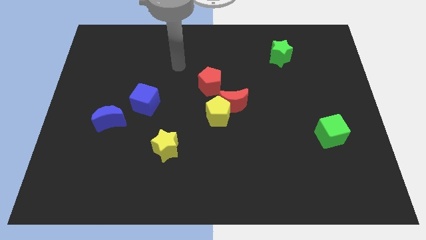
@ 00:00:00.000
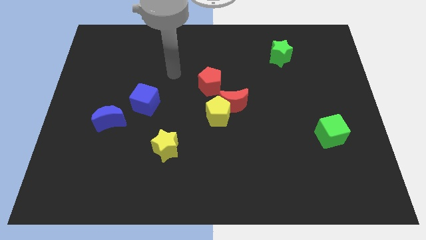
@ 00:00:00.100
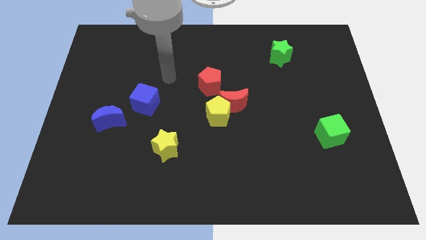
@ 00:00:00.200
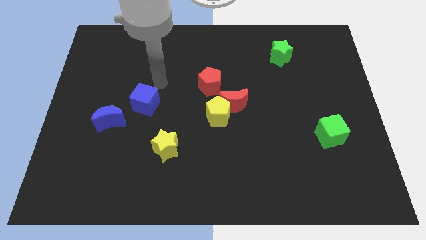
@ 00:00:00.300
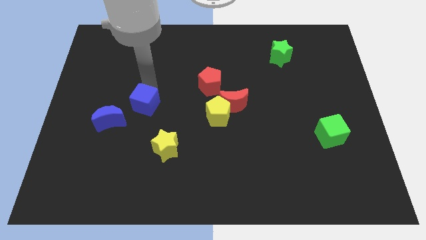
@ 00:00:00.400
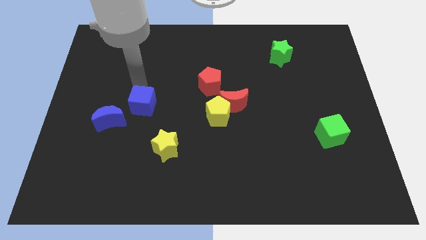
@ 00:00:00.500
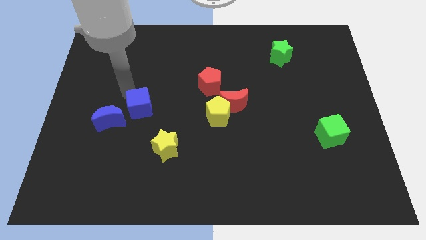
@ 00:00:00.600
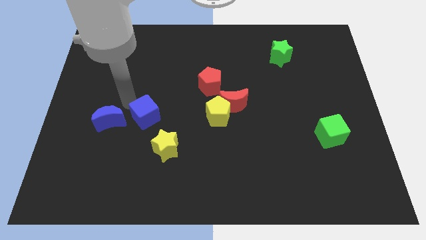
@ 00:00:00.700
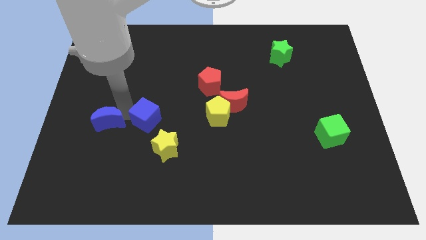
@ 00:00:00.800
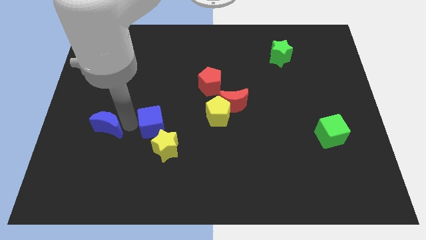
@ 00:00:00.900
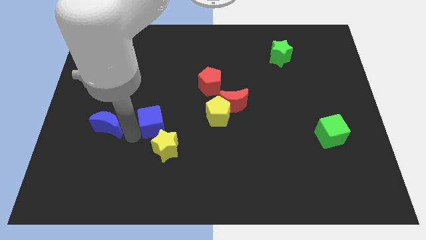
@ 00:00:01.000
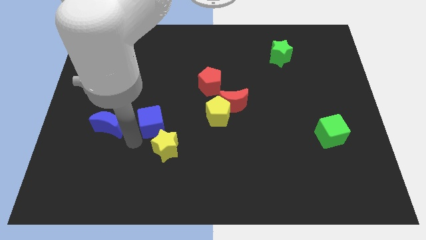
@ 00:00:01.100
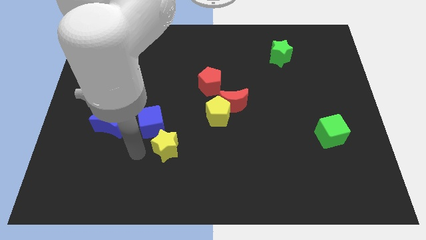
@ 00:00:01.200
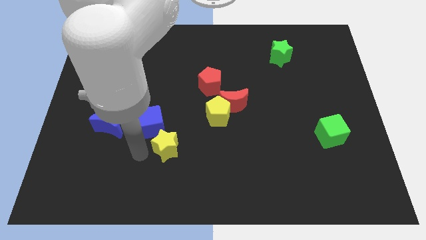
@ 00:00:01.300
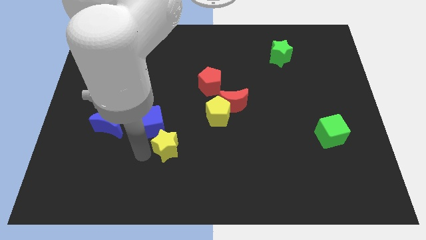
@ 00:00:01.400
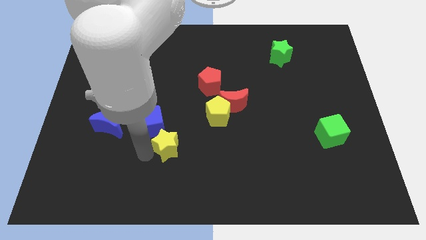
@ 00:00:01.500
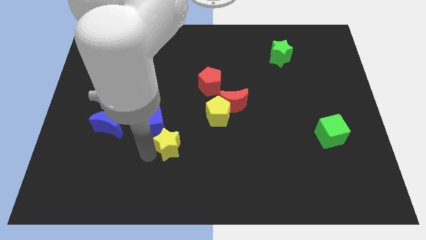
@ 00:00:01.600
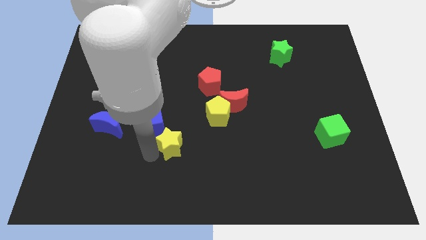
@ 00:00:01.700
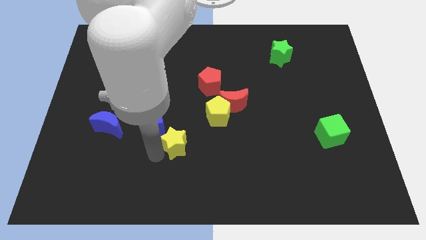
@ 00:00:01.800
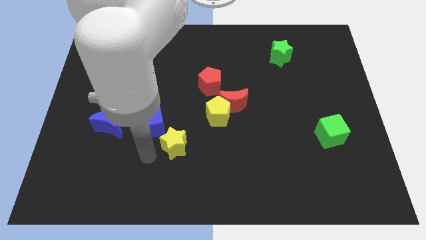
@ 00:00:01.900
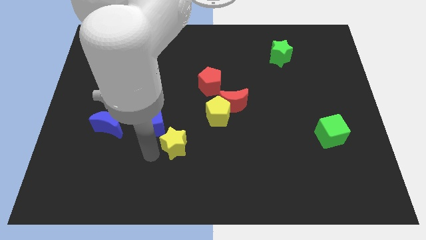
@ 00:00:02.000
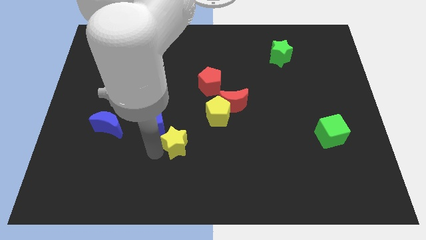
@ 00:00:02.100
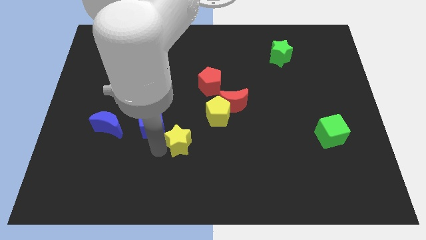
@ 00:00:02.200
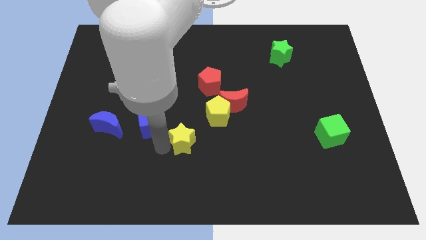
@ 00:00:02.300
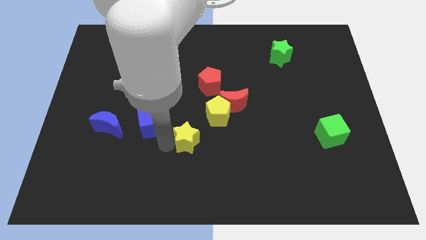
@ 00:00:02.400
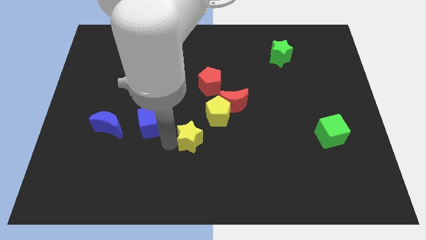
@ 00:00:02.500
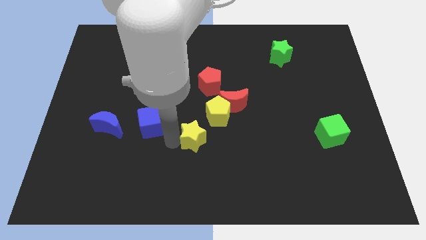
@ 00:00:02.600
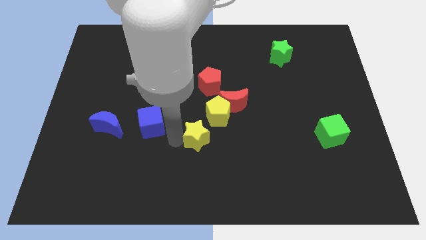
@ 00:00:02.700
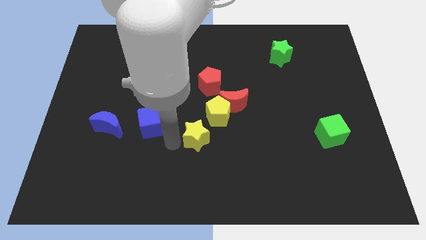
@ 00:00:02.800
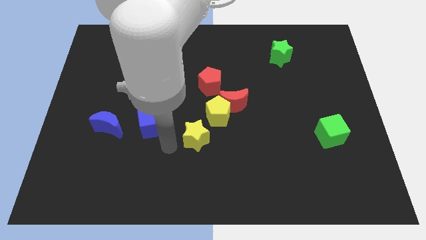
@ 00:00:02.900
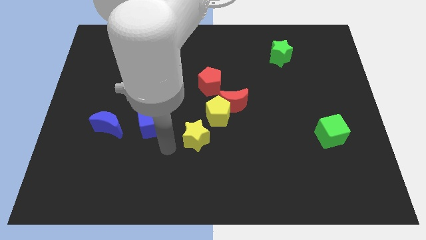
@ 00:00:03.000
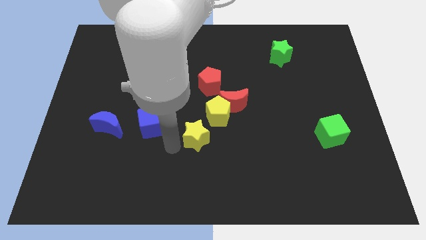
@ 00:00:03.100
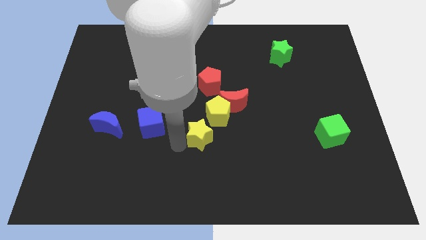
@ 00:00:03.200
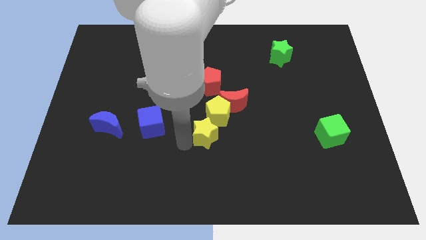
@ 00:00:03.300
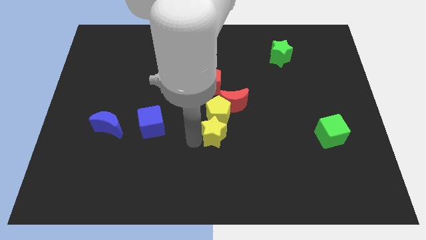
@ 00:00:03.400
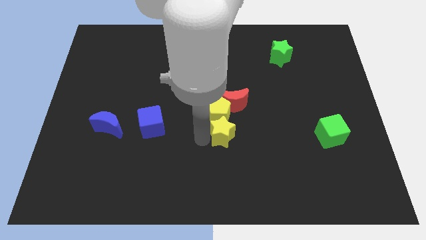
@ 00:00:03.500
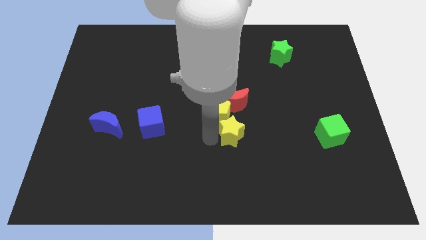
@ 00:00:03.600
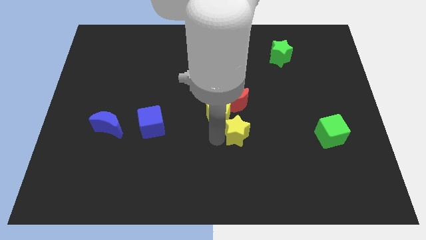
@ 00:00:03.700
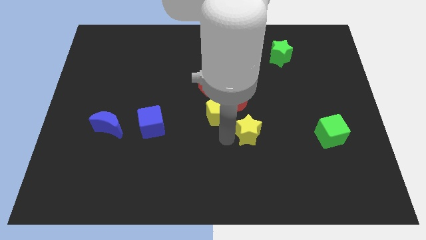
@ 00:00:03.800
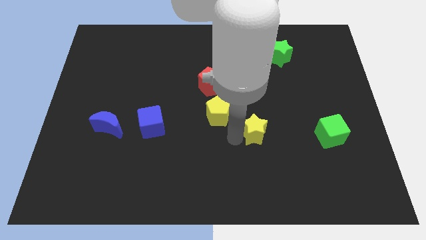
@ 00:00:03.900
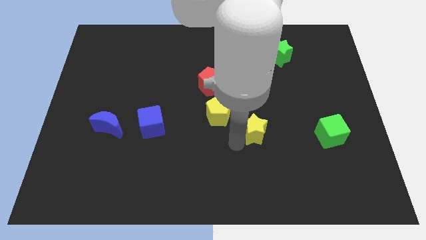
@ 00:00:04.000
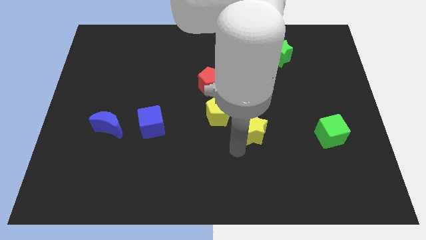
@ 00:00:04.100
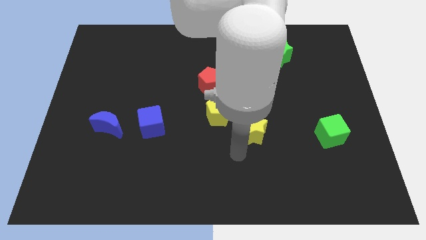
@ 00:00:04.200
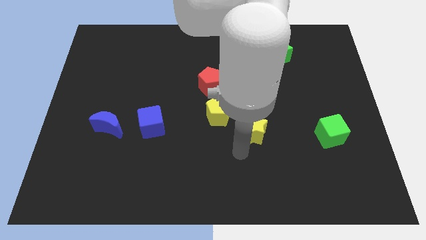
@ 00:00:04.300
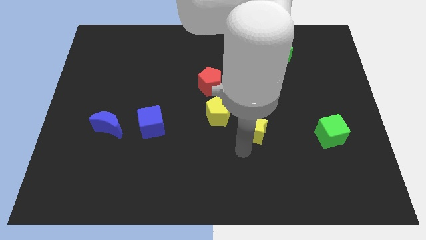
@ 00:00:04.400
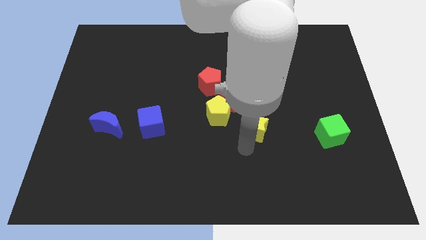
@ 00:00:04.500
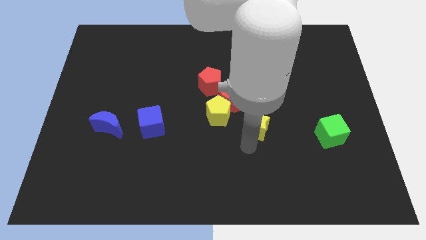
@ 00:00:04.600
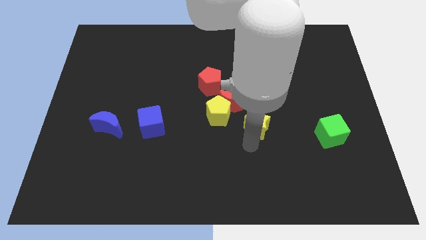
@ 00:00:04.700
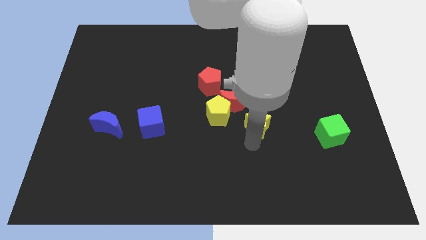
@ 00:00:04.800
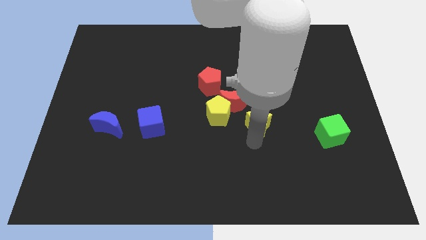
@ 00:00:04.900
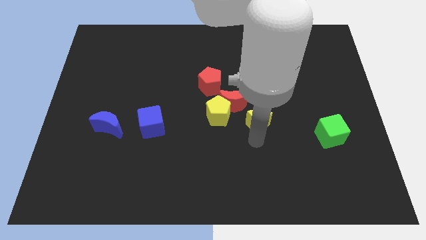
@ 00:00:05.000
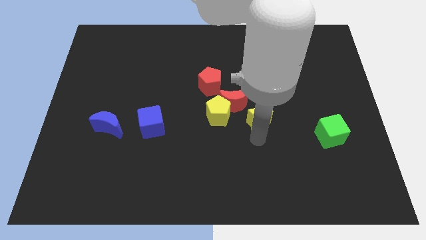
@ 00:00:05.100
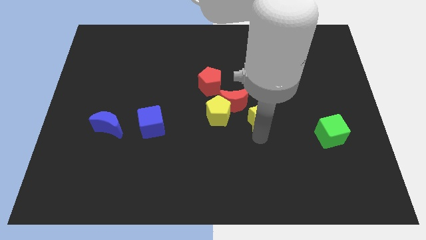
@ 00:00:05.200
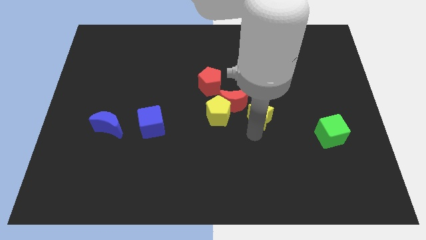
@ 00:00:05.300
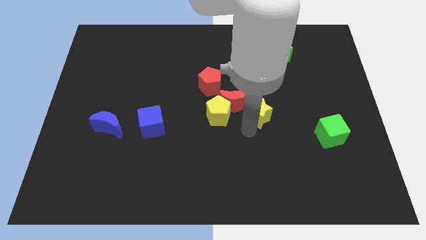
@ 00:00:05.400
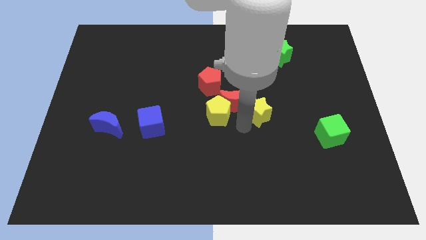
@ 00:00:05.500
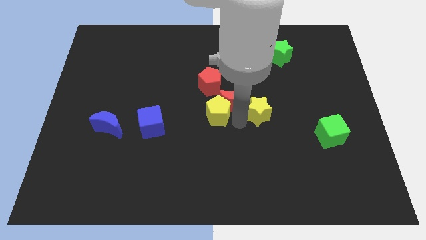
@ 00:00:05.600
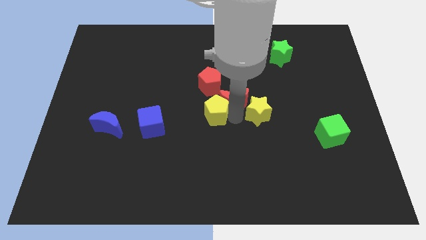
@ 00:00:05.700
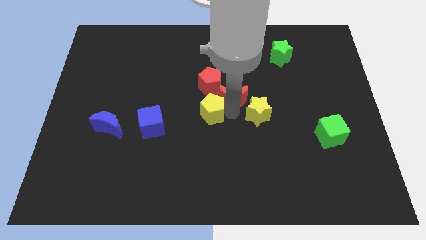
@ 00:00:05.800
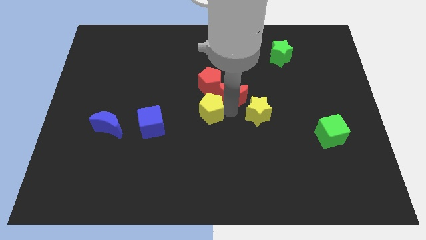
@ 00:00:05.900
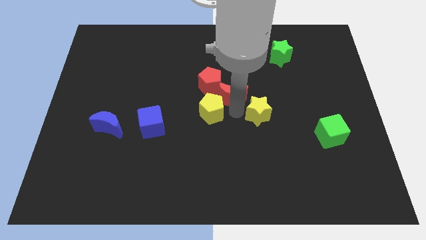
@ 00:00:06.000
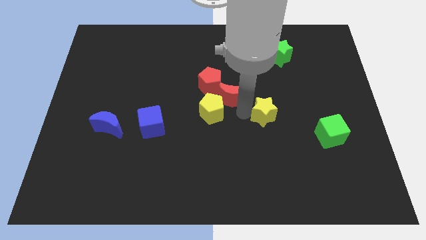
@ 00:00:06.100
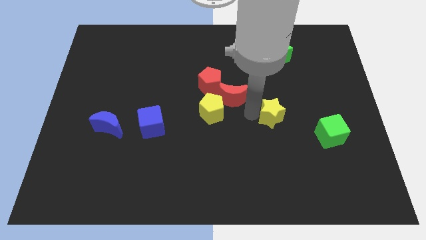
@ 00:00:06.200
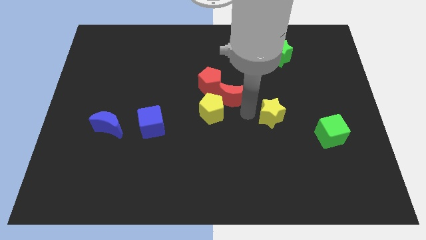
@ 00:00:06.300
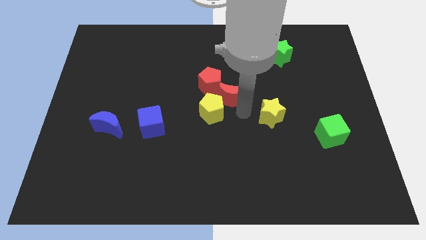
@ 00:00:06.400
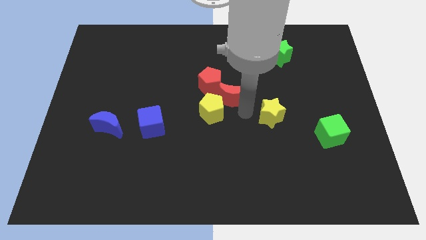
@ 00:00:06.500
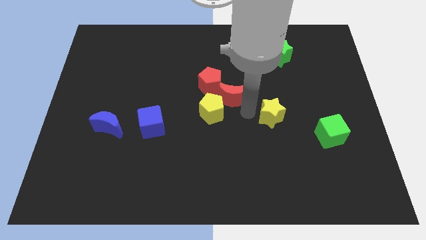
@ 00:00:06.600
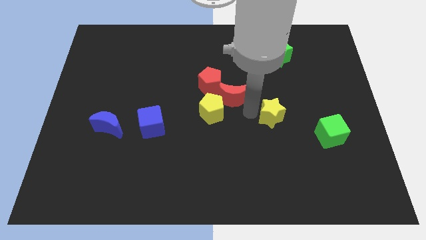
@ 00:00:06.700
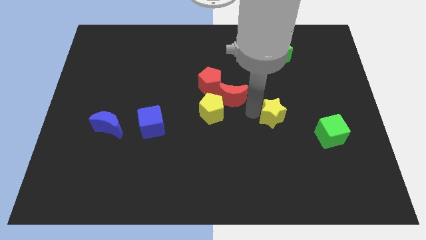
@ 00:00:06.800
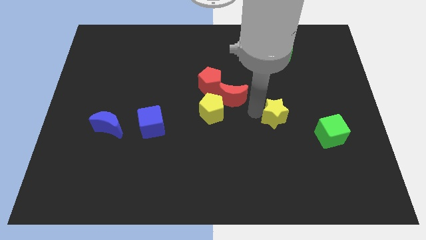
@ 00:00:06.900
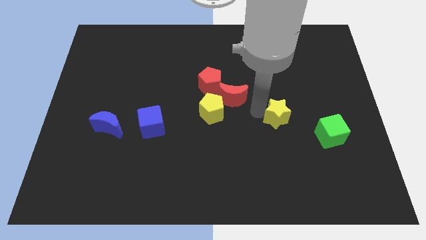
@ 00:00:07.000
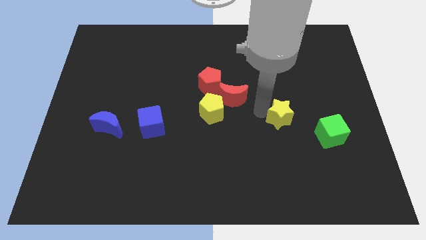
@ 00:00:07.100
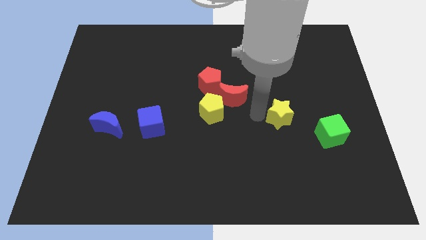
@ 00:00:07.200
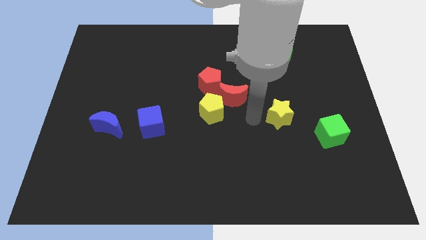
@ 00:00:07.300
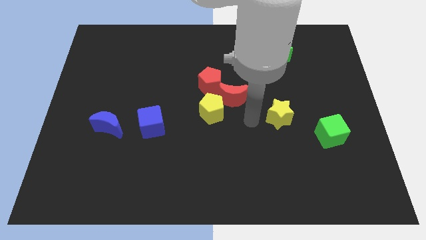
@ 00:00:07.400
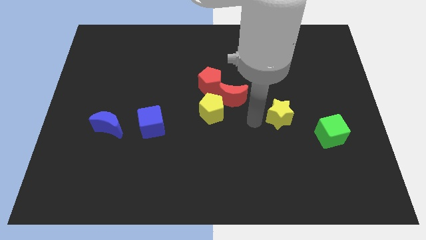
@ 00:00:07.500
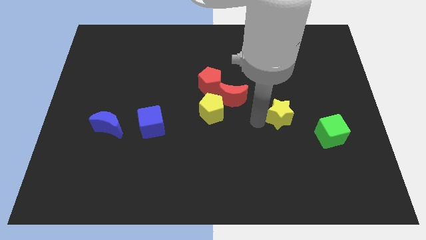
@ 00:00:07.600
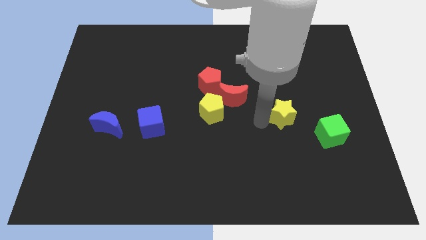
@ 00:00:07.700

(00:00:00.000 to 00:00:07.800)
move the yellow star to the top left side of the green cube
